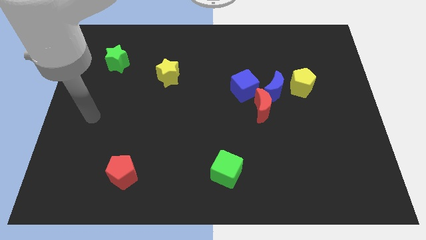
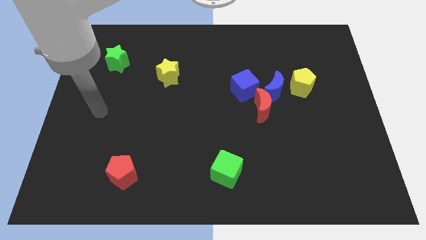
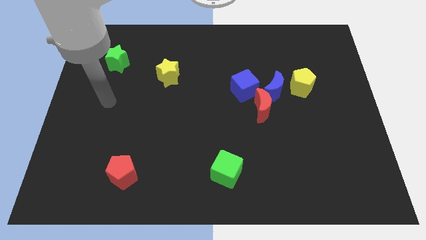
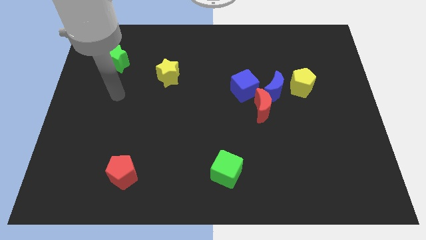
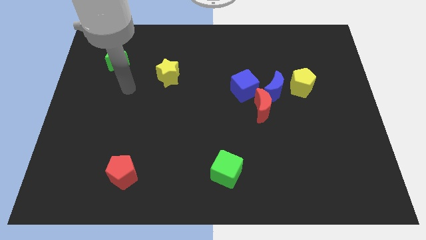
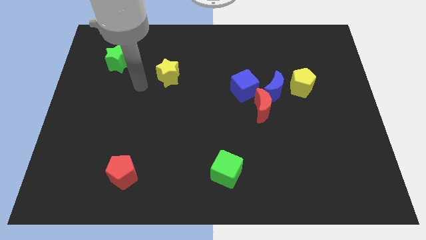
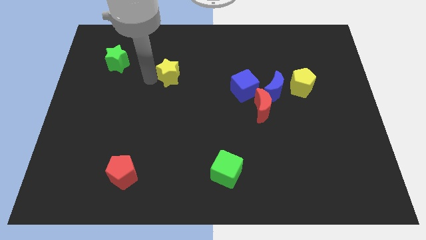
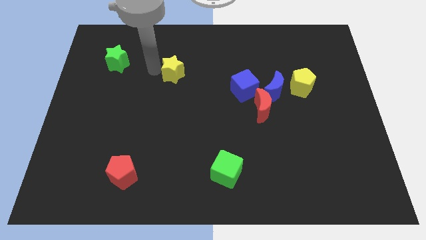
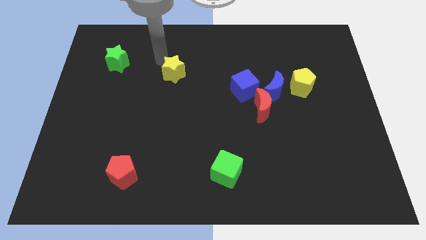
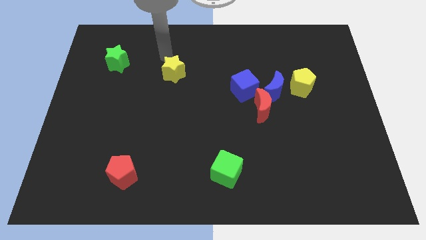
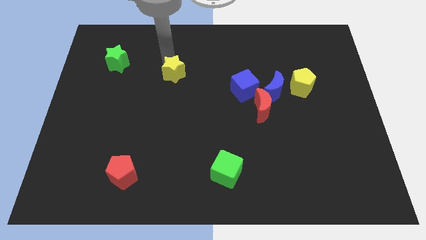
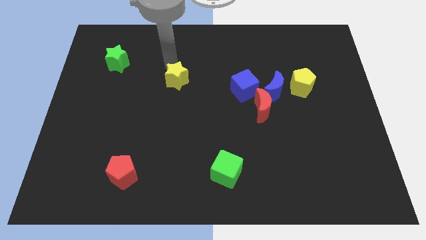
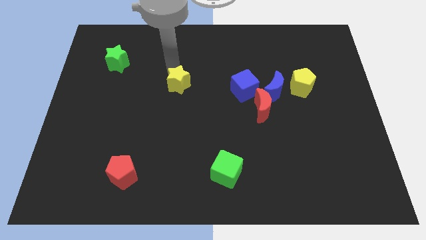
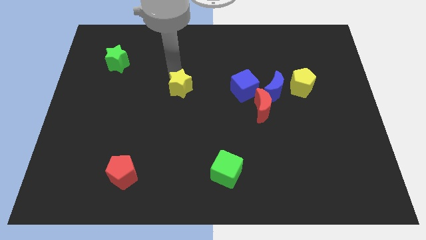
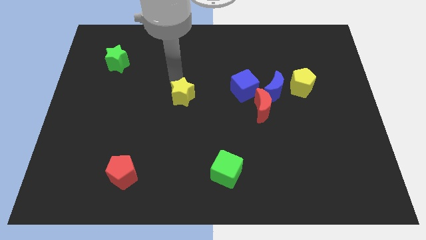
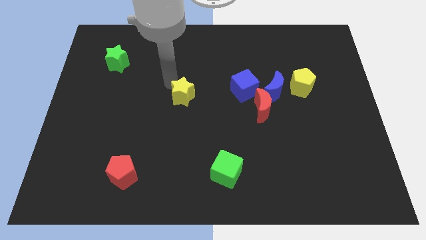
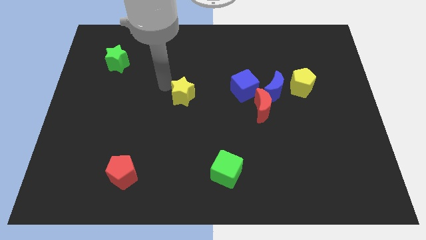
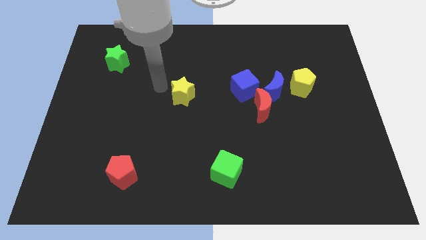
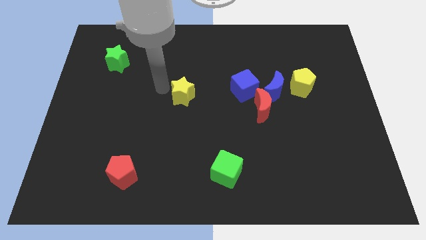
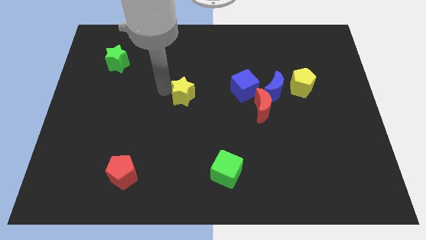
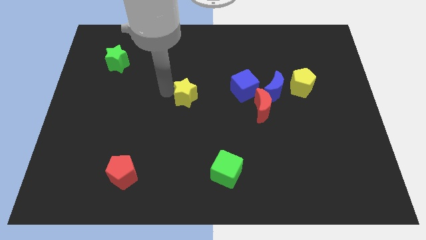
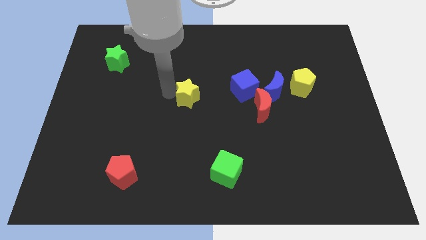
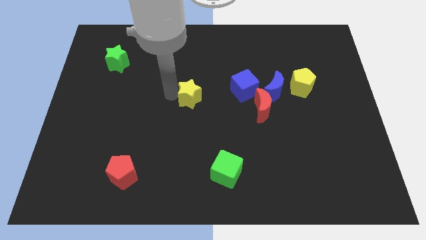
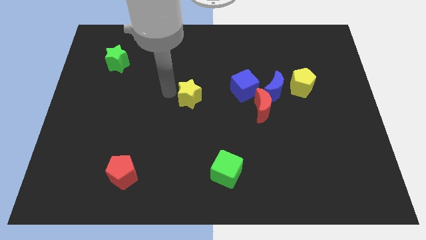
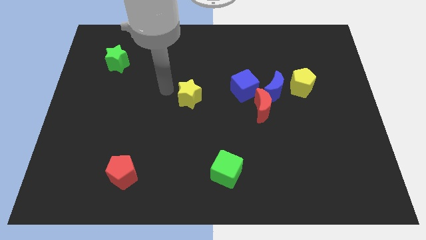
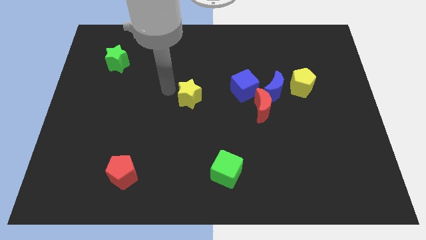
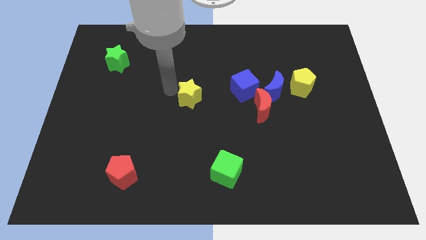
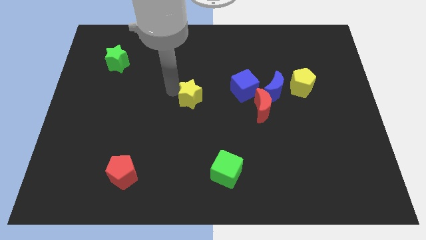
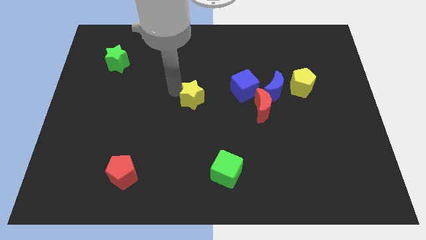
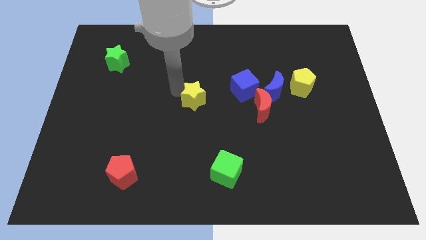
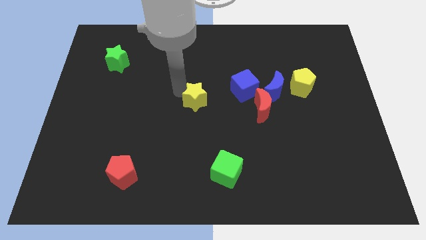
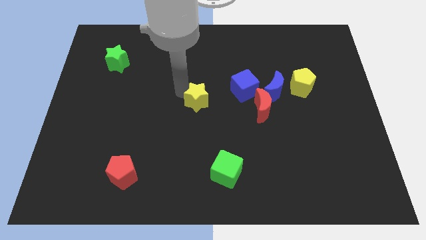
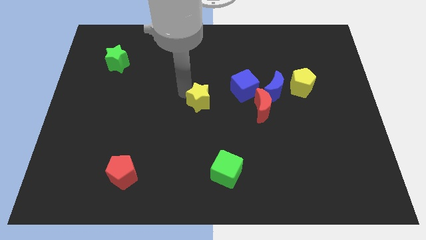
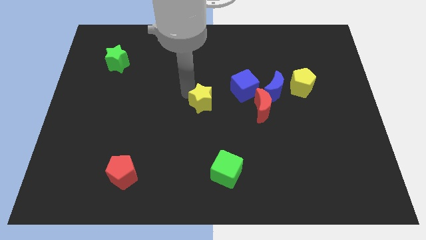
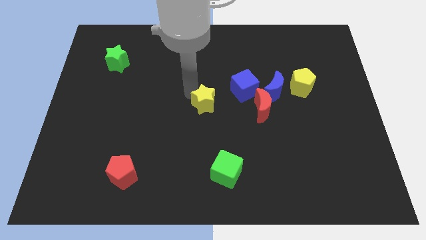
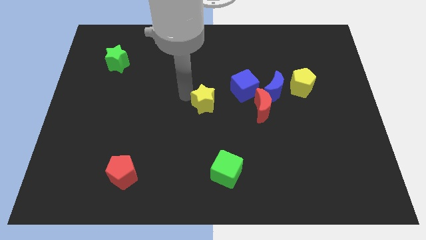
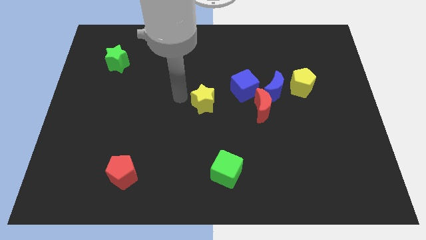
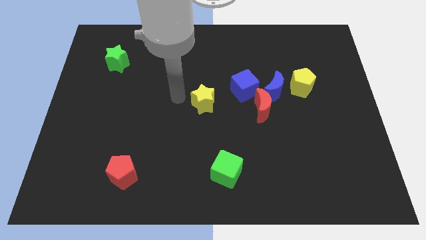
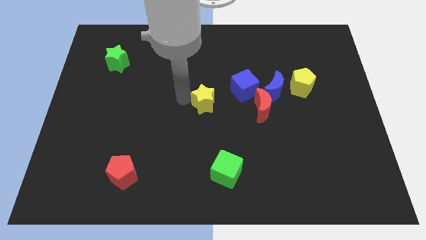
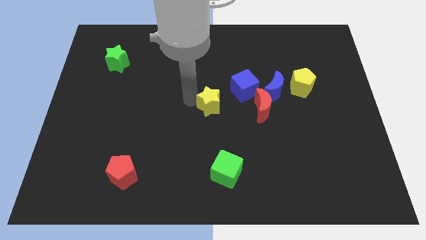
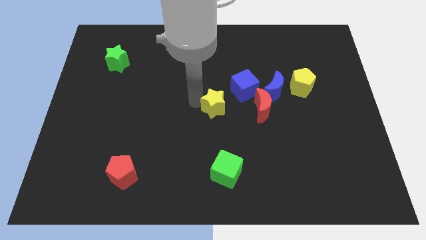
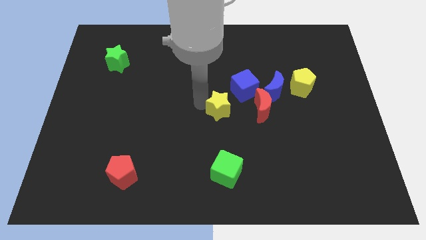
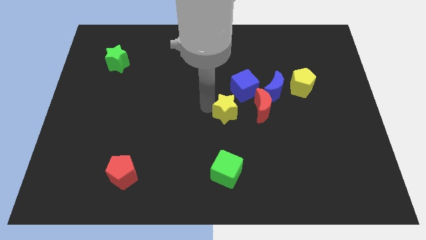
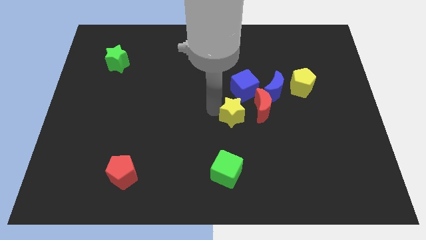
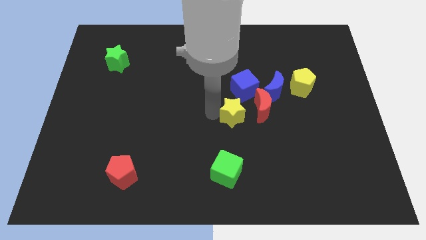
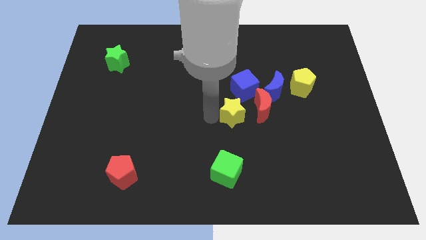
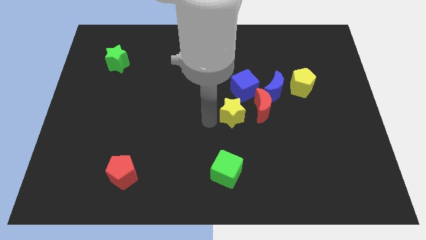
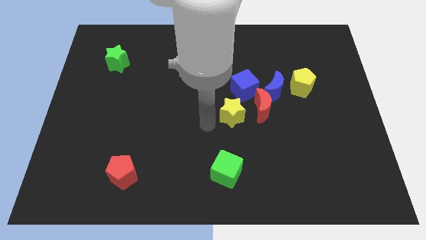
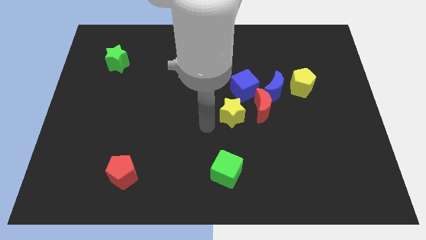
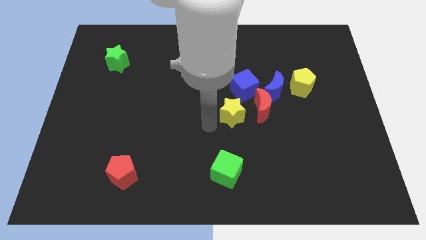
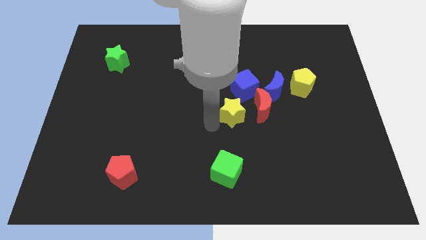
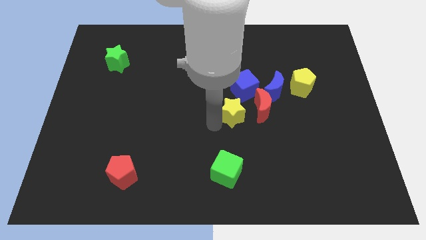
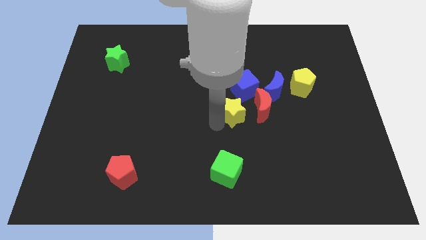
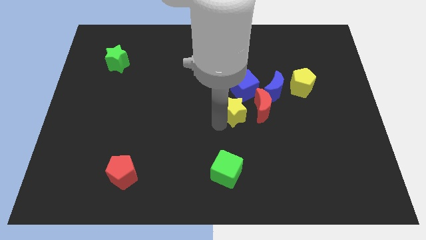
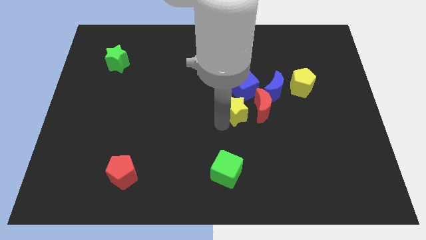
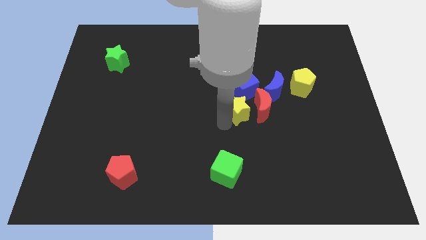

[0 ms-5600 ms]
push the yellow star next to the red moon

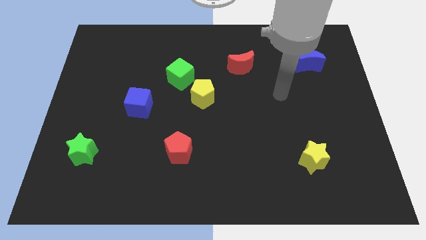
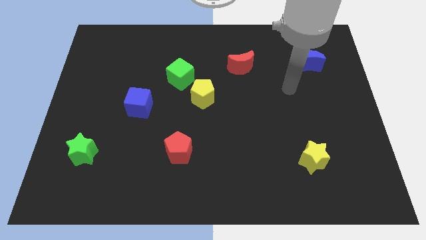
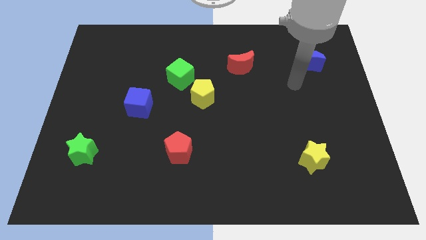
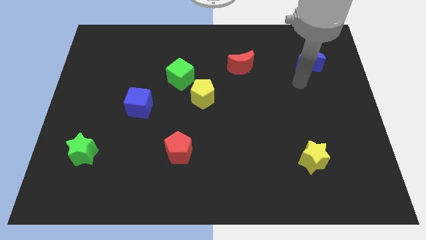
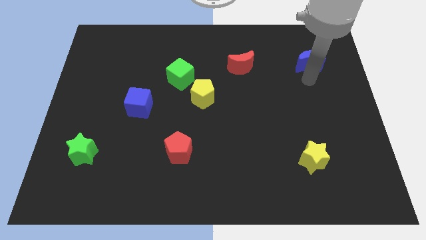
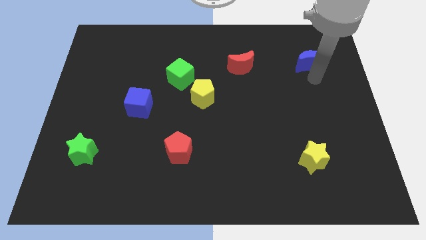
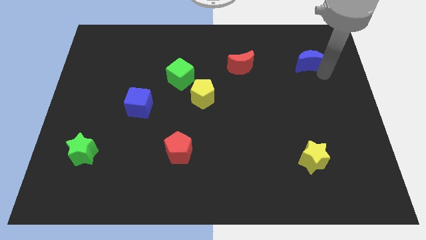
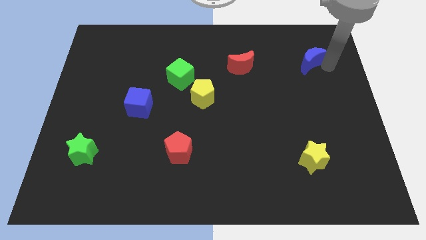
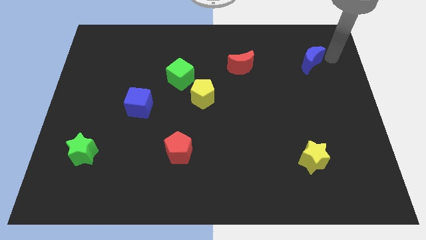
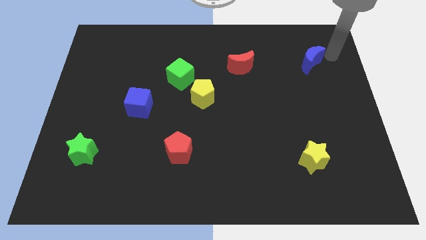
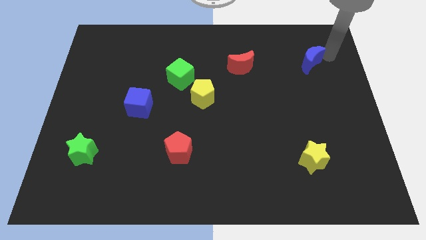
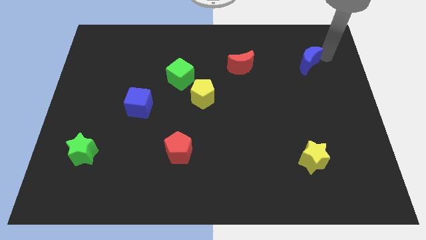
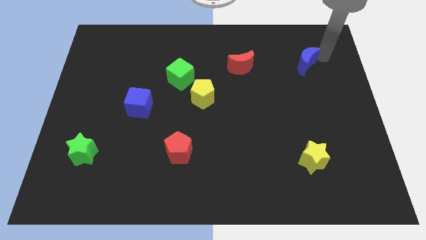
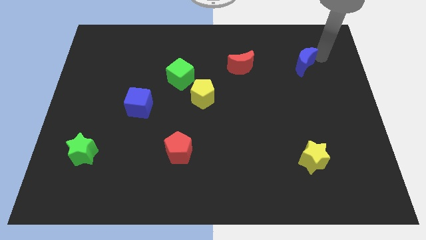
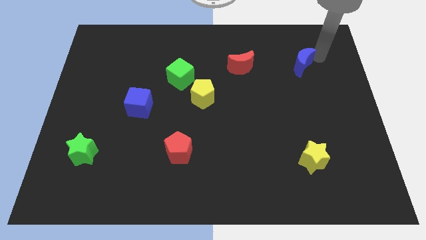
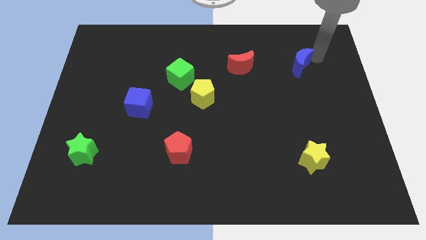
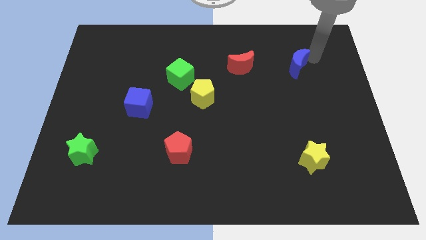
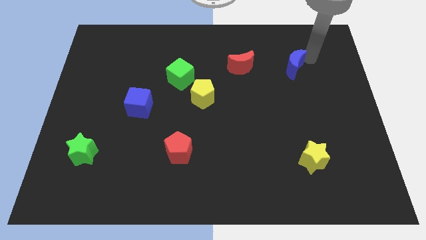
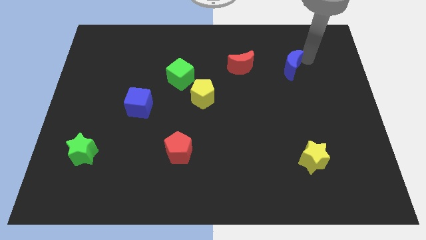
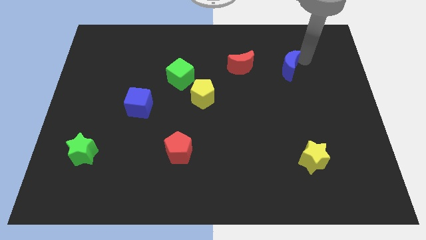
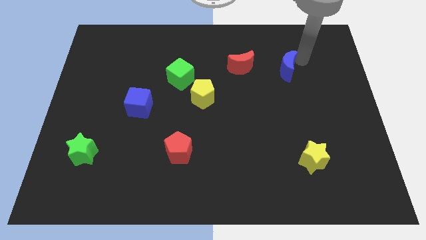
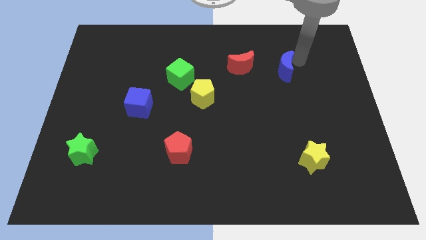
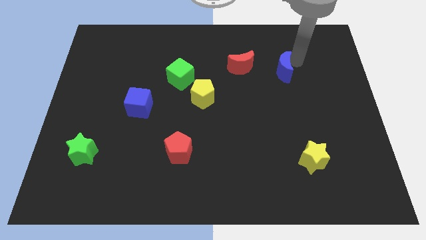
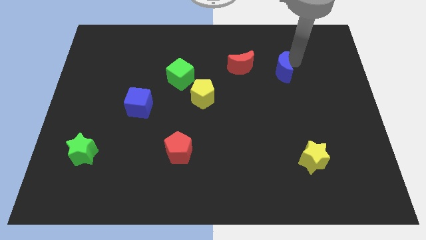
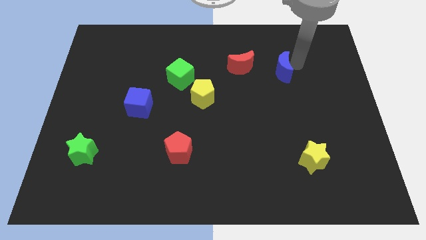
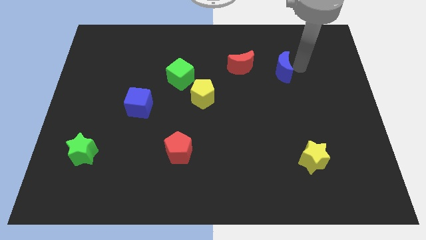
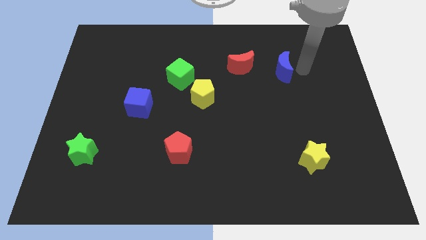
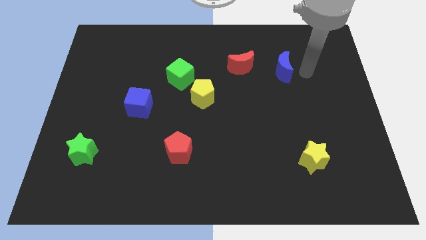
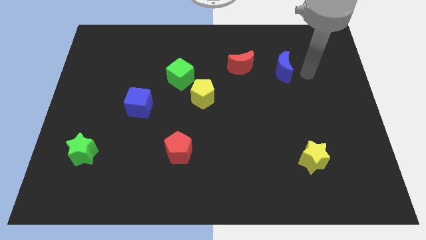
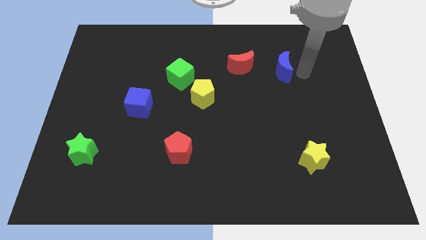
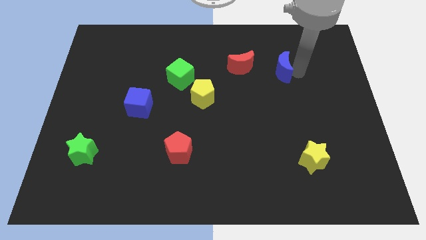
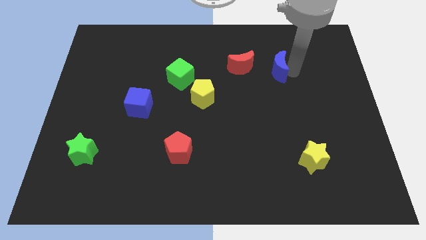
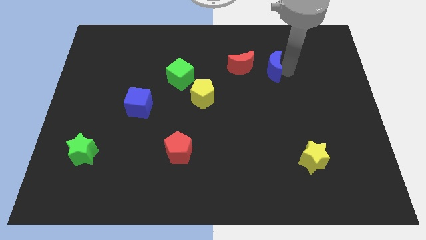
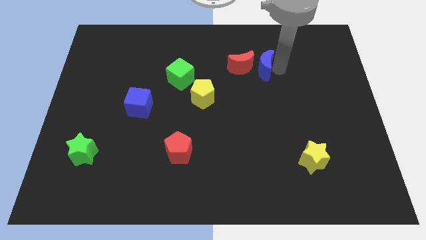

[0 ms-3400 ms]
put the blue moon close to the red moon
